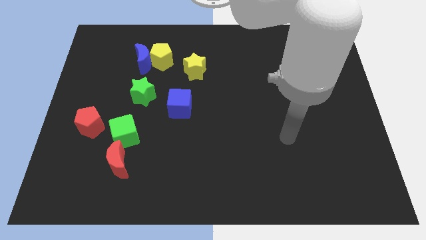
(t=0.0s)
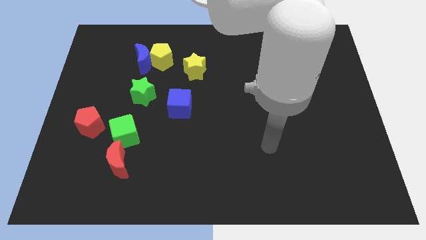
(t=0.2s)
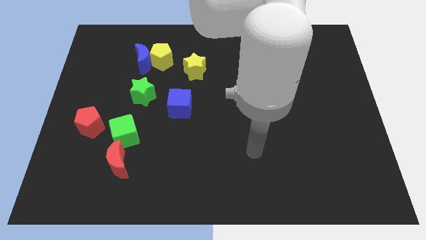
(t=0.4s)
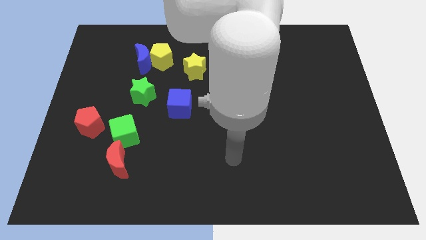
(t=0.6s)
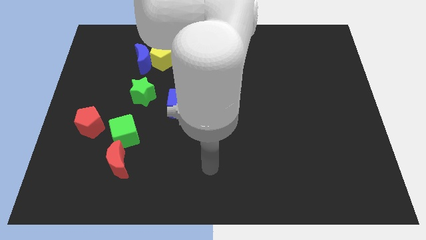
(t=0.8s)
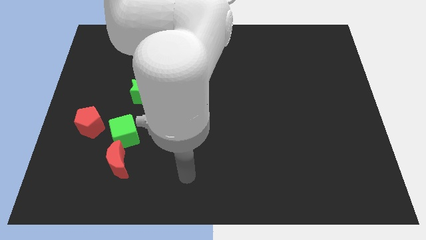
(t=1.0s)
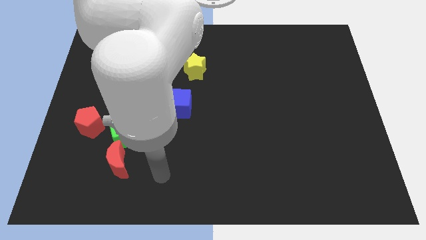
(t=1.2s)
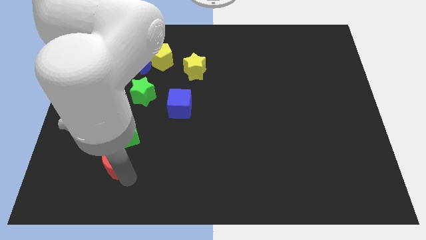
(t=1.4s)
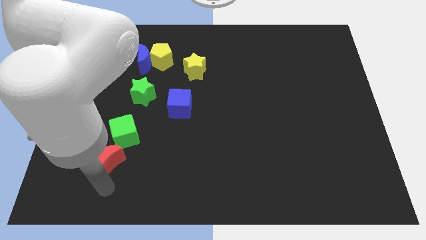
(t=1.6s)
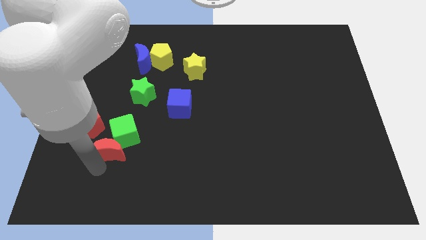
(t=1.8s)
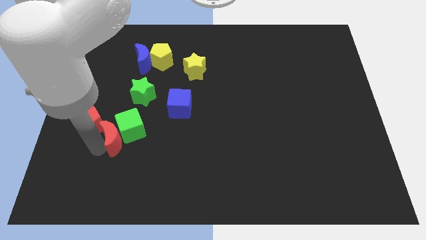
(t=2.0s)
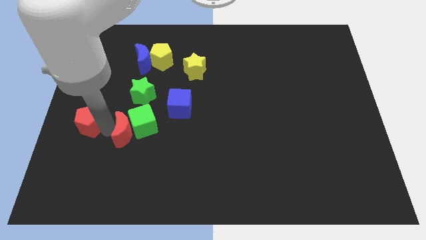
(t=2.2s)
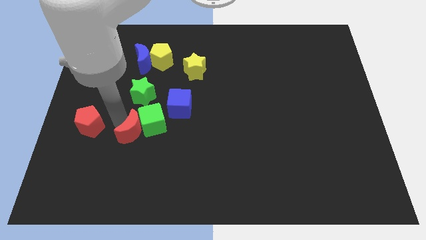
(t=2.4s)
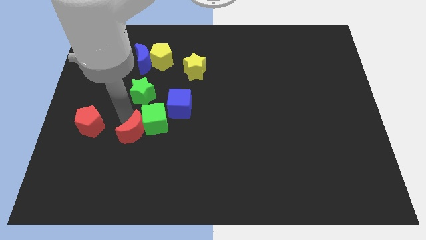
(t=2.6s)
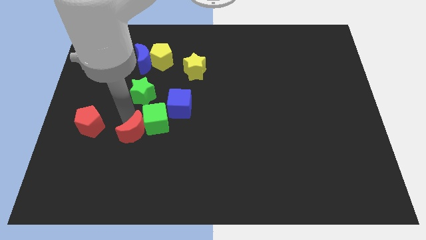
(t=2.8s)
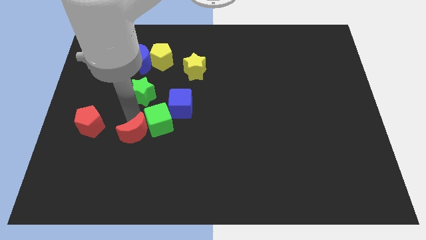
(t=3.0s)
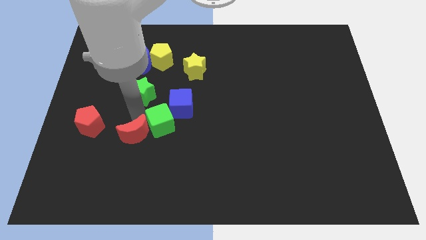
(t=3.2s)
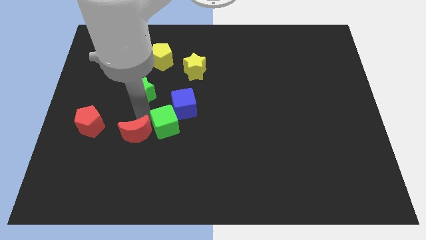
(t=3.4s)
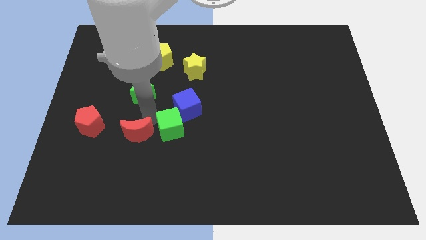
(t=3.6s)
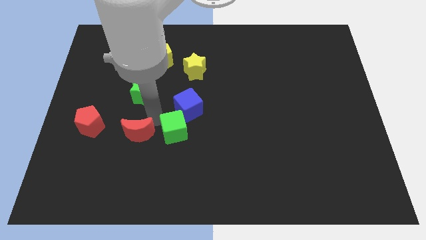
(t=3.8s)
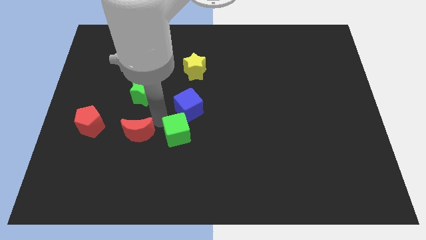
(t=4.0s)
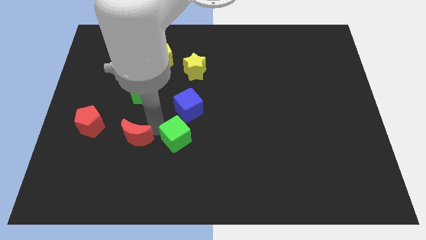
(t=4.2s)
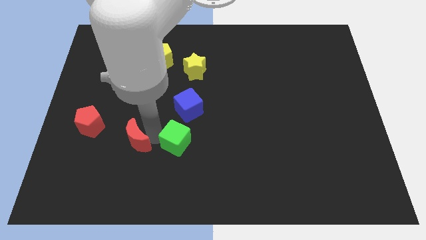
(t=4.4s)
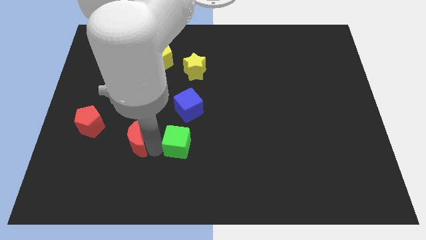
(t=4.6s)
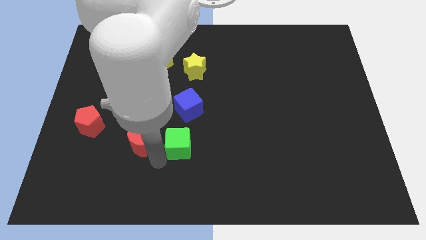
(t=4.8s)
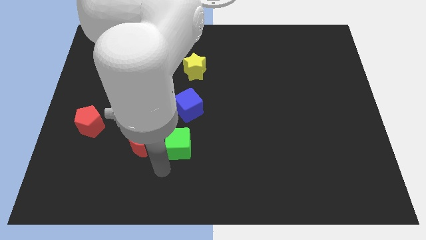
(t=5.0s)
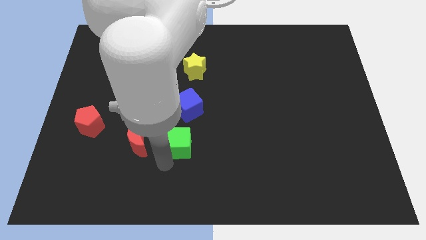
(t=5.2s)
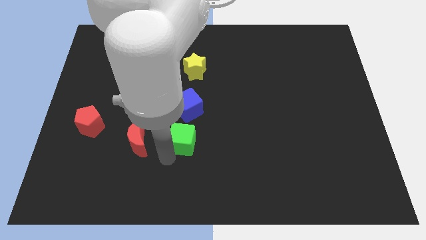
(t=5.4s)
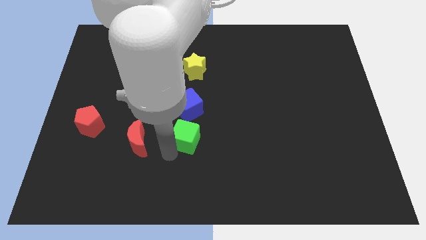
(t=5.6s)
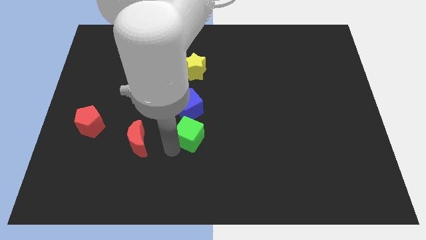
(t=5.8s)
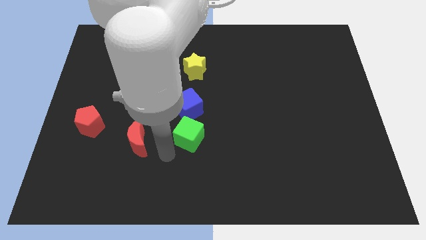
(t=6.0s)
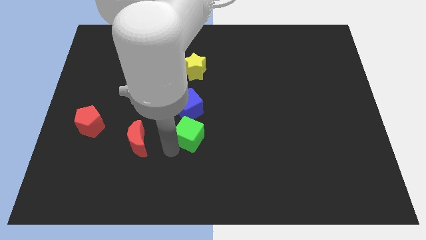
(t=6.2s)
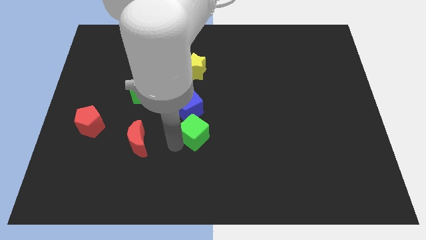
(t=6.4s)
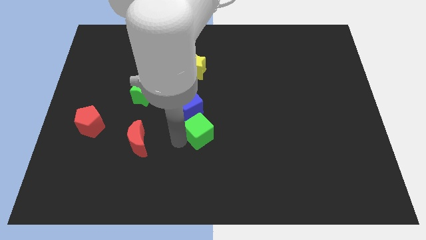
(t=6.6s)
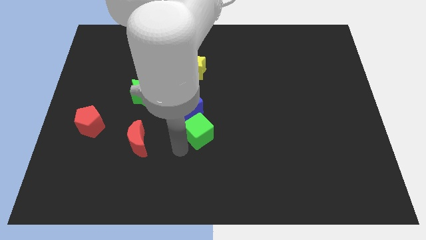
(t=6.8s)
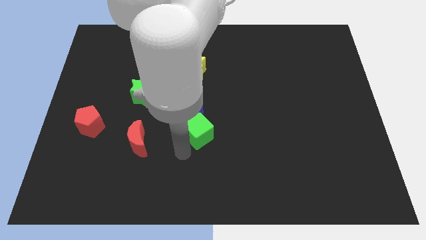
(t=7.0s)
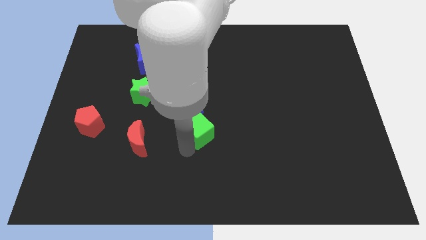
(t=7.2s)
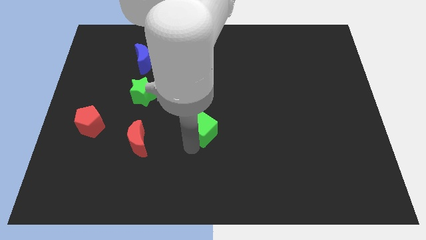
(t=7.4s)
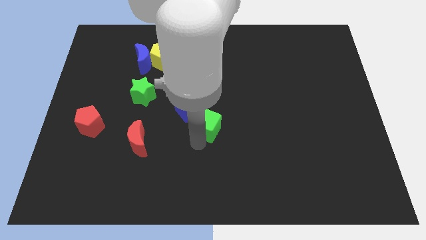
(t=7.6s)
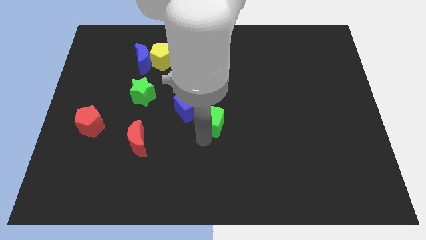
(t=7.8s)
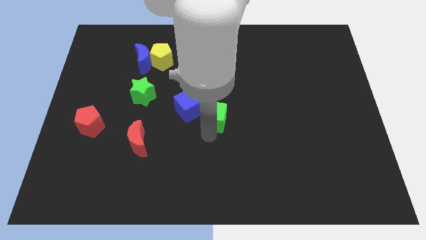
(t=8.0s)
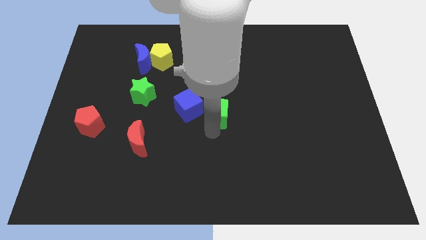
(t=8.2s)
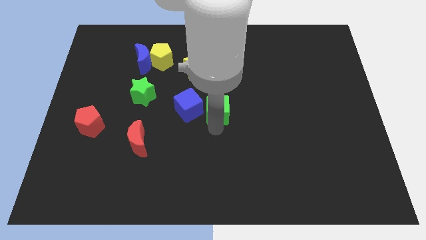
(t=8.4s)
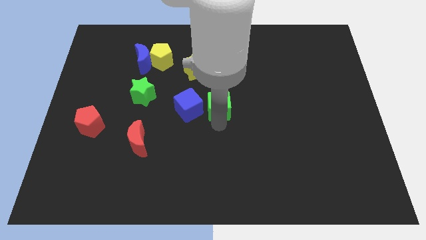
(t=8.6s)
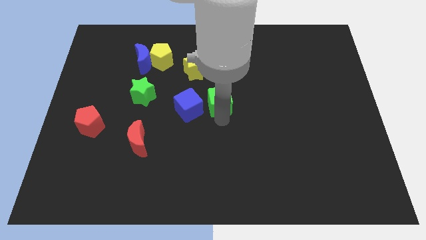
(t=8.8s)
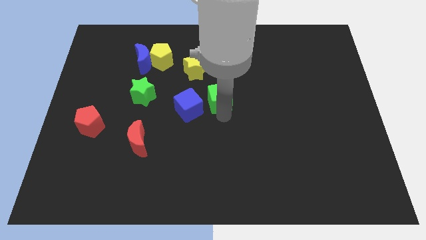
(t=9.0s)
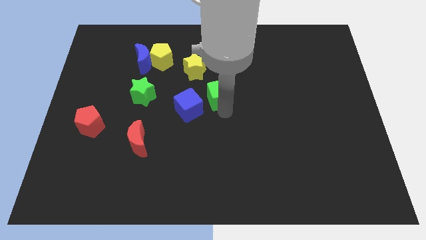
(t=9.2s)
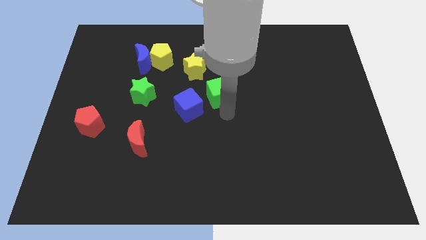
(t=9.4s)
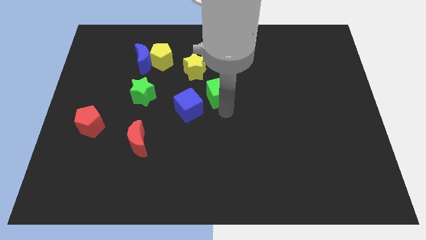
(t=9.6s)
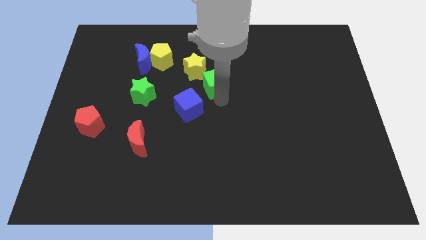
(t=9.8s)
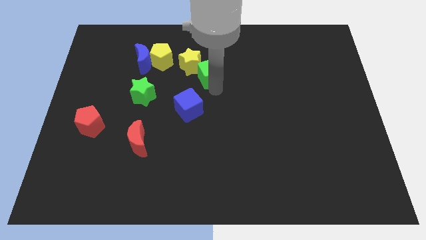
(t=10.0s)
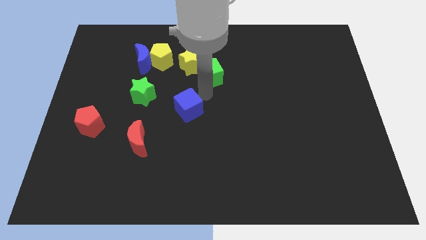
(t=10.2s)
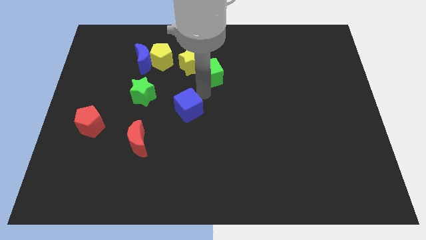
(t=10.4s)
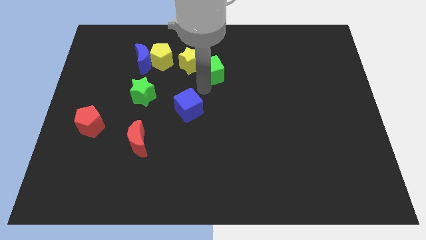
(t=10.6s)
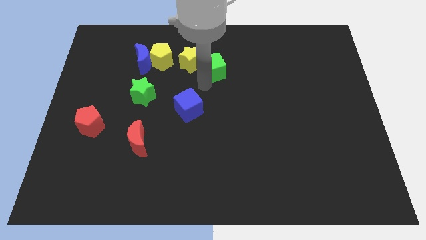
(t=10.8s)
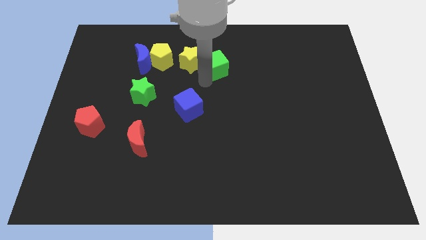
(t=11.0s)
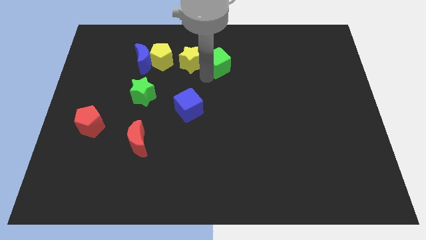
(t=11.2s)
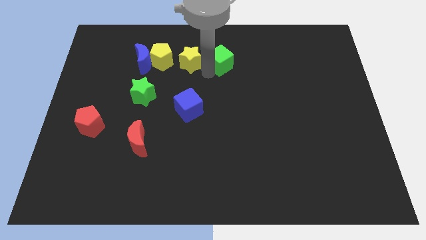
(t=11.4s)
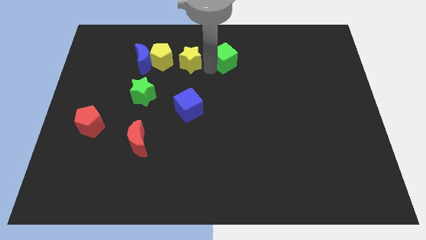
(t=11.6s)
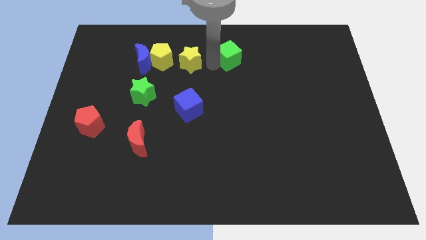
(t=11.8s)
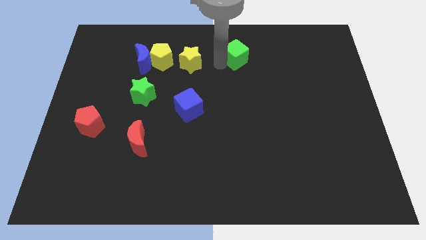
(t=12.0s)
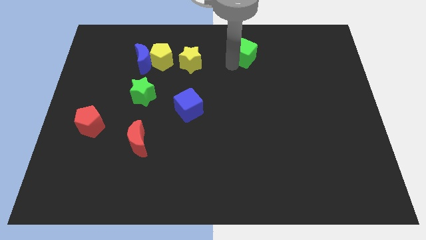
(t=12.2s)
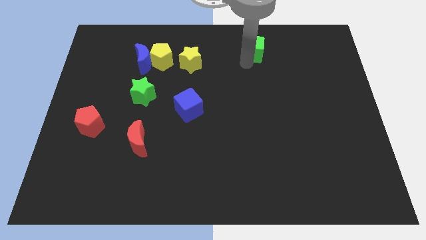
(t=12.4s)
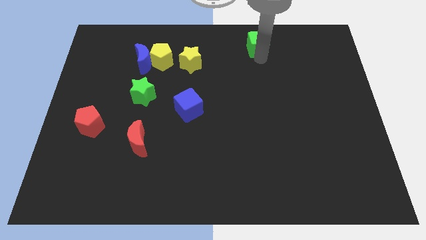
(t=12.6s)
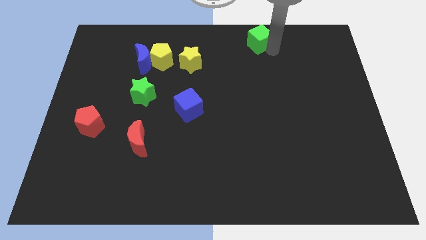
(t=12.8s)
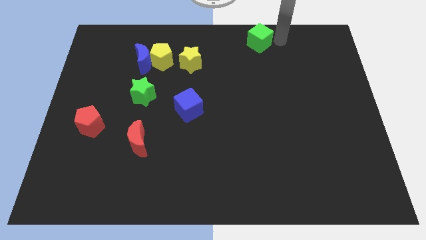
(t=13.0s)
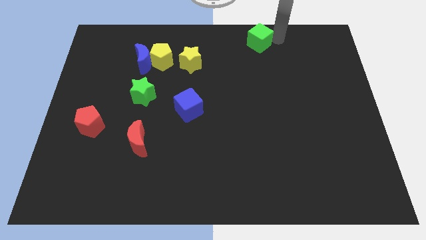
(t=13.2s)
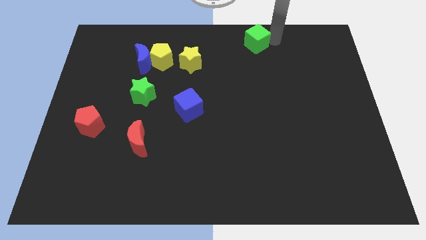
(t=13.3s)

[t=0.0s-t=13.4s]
move the green cube to the top side
